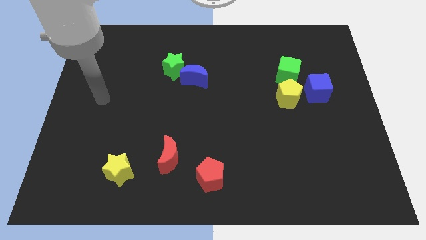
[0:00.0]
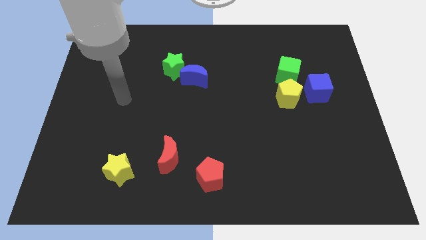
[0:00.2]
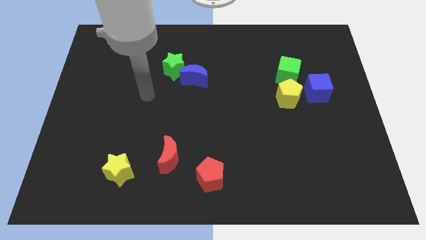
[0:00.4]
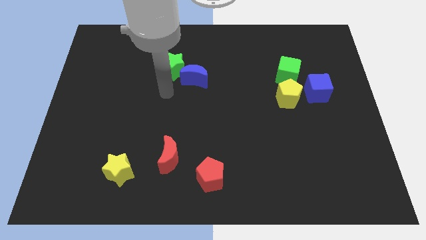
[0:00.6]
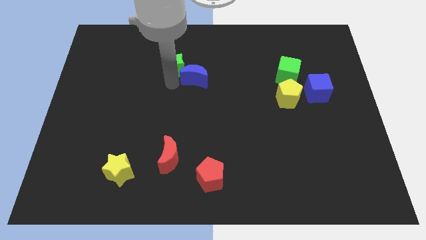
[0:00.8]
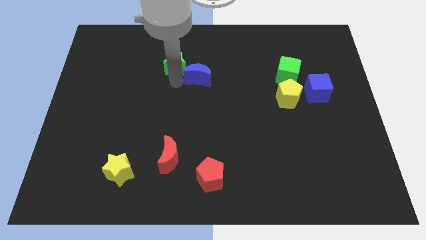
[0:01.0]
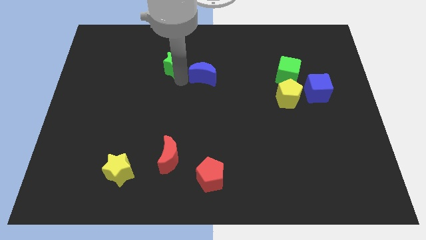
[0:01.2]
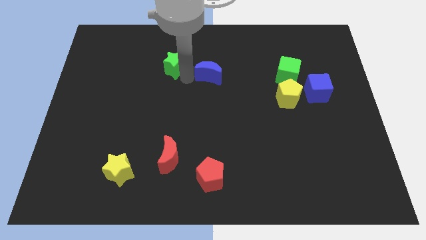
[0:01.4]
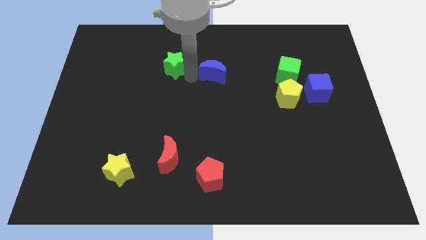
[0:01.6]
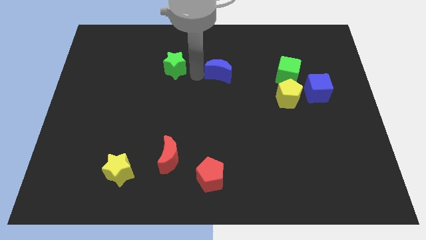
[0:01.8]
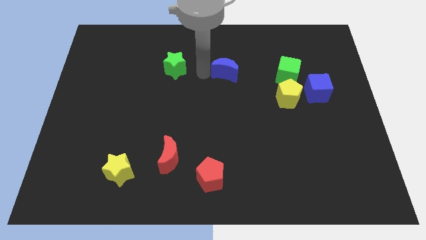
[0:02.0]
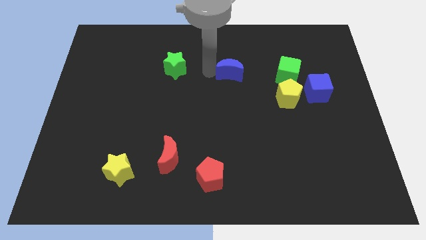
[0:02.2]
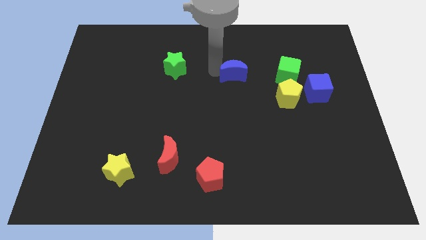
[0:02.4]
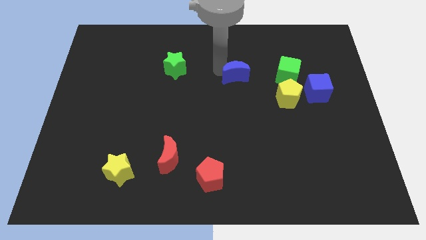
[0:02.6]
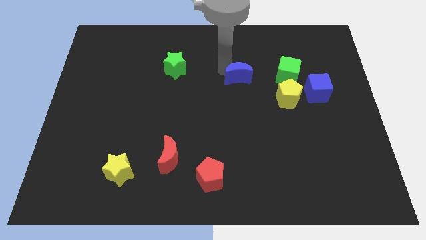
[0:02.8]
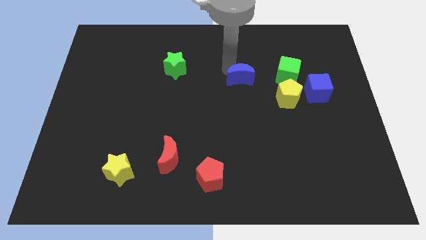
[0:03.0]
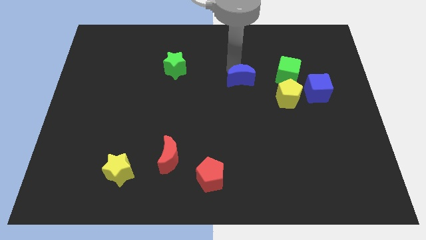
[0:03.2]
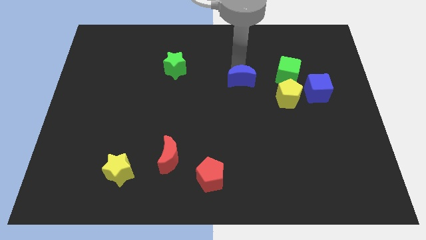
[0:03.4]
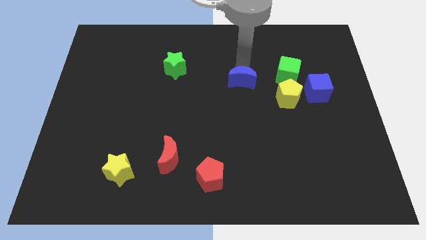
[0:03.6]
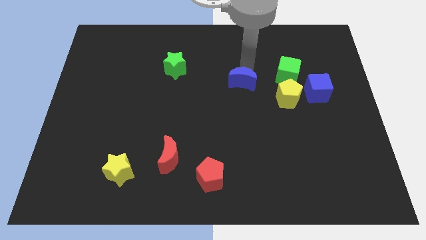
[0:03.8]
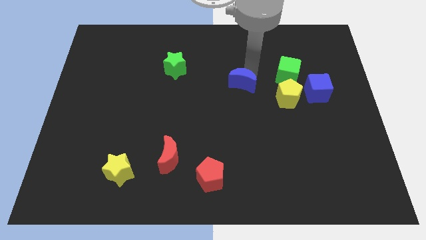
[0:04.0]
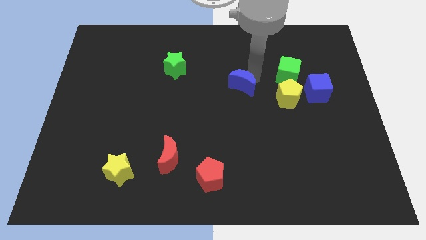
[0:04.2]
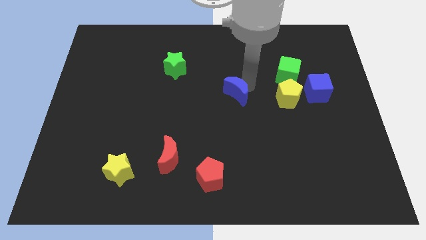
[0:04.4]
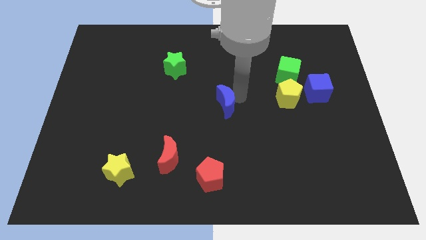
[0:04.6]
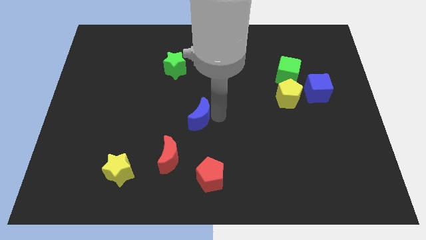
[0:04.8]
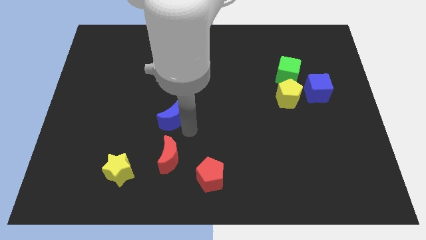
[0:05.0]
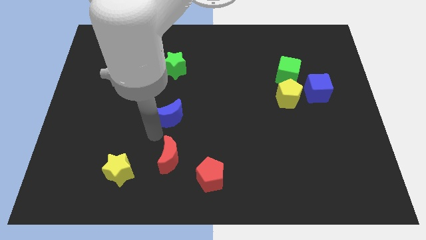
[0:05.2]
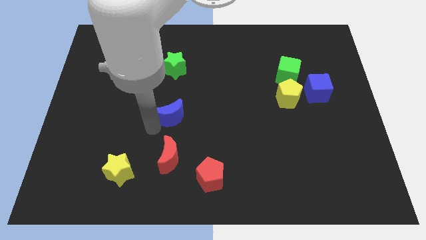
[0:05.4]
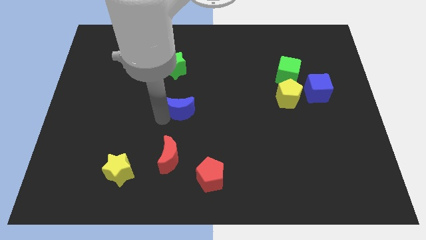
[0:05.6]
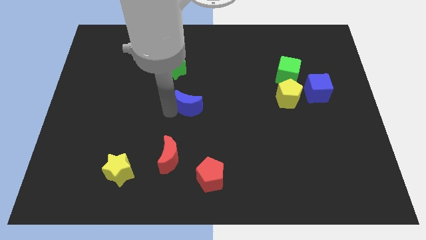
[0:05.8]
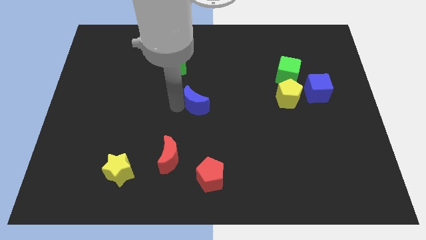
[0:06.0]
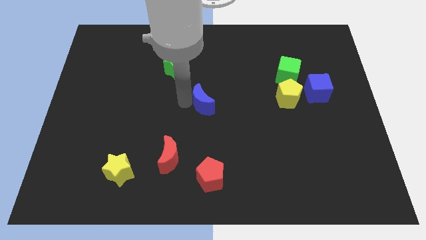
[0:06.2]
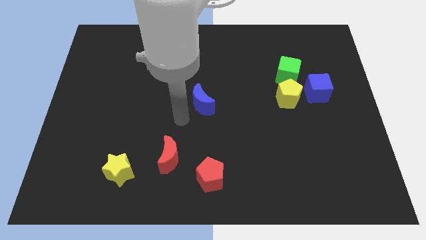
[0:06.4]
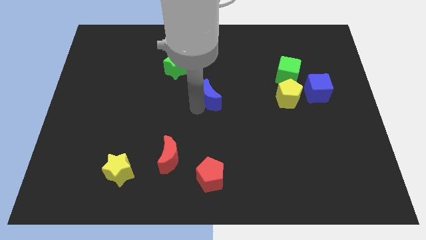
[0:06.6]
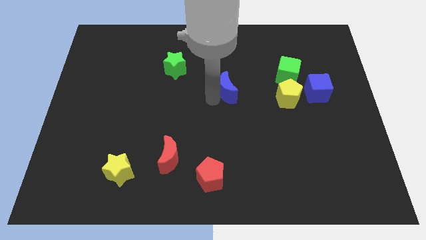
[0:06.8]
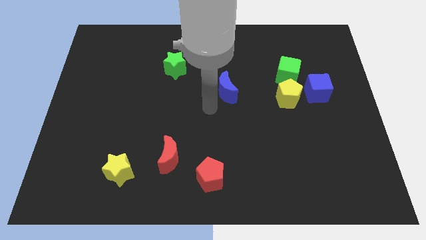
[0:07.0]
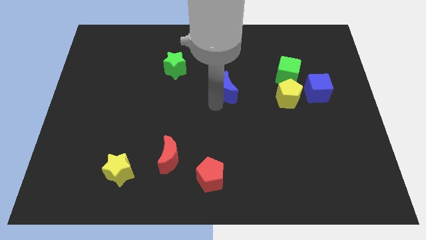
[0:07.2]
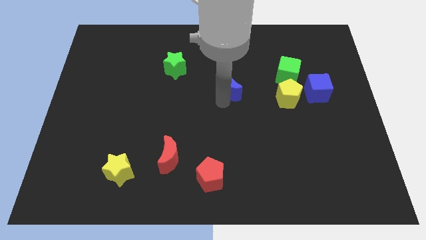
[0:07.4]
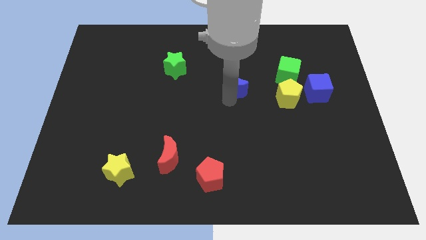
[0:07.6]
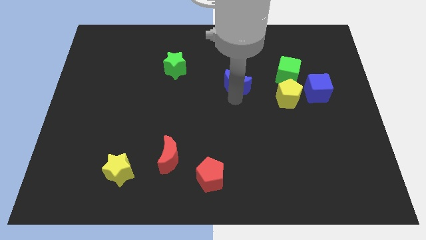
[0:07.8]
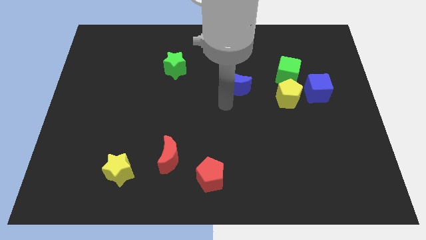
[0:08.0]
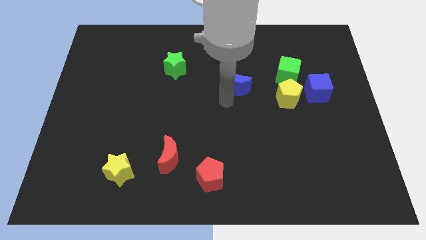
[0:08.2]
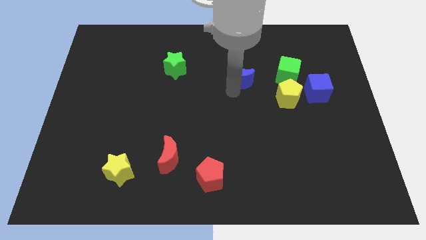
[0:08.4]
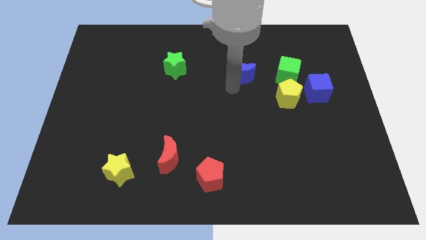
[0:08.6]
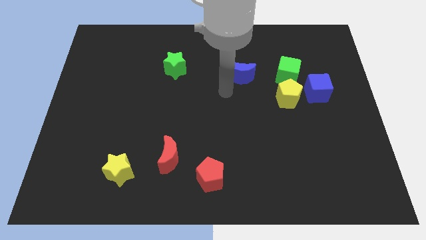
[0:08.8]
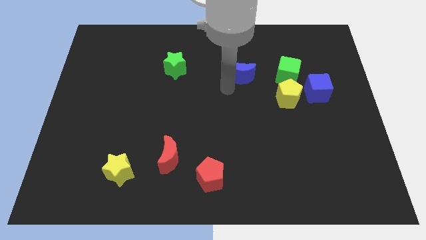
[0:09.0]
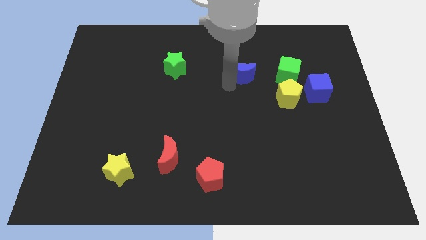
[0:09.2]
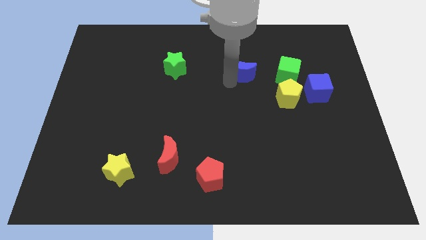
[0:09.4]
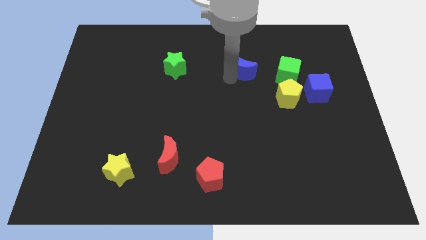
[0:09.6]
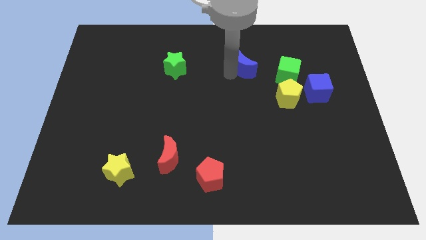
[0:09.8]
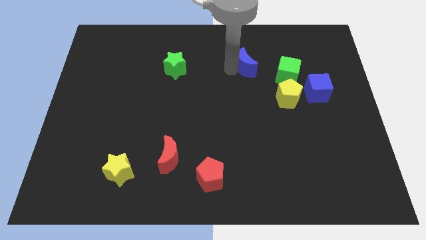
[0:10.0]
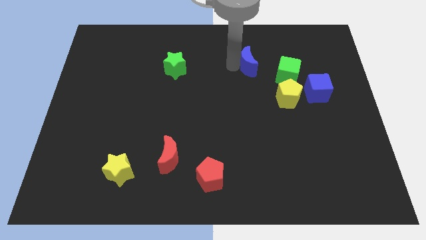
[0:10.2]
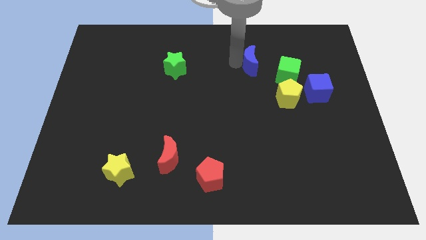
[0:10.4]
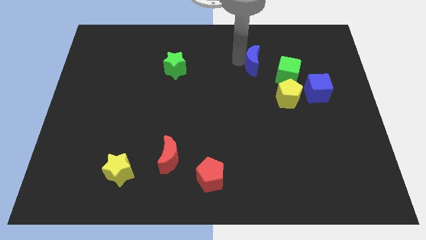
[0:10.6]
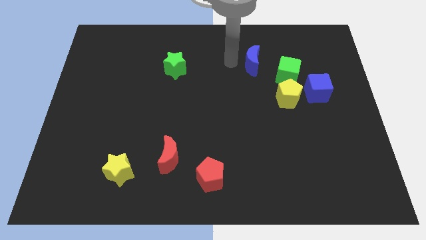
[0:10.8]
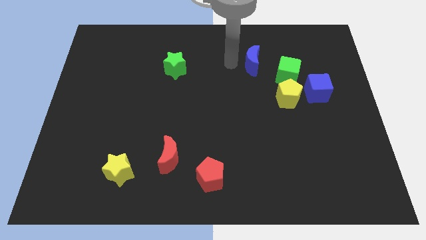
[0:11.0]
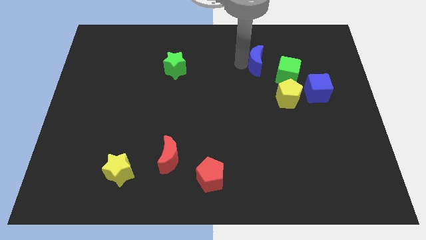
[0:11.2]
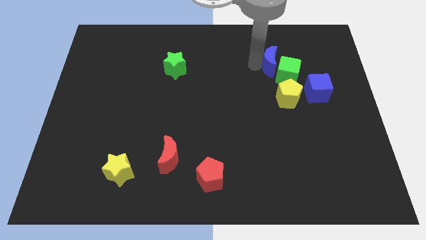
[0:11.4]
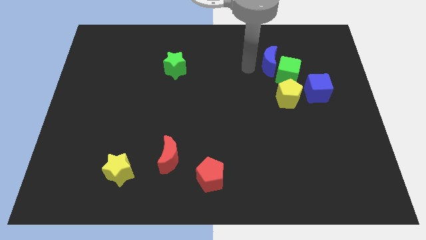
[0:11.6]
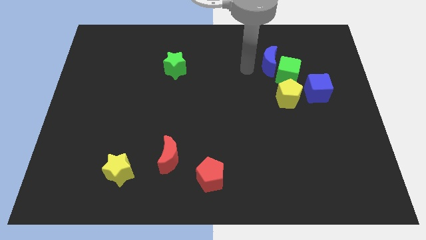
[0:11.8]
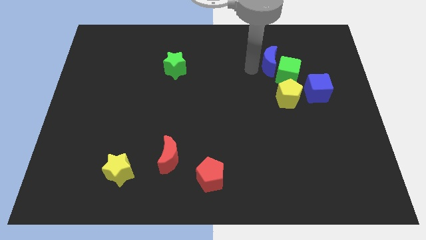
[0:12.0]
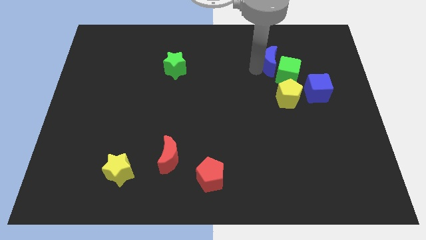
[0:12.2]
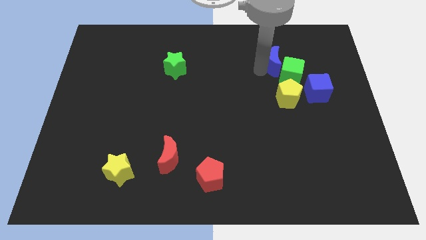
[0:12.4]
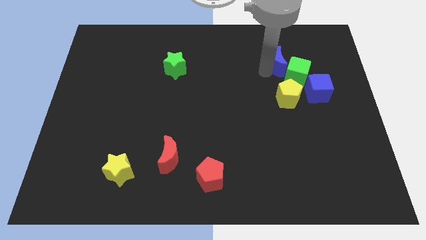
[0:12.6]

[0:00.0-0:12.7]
push the blue moon right

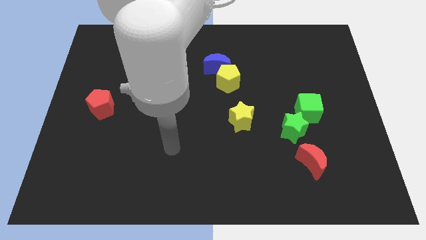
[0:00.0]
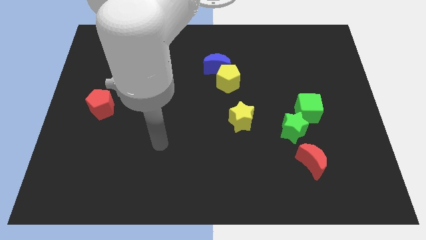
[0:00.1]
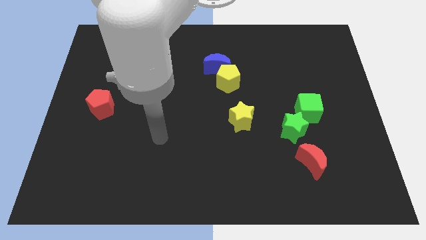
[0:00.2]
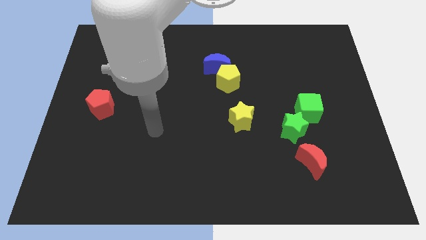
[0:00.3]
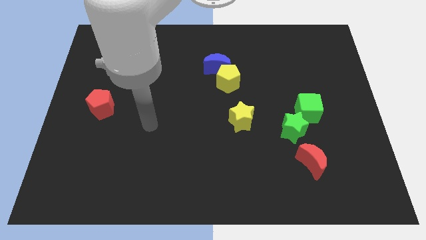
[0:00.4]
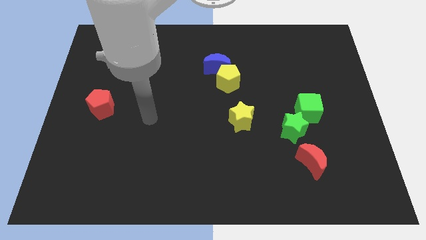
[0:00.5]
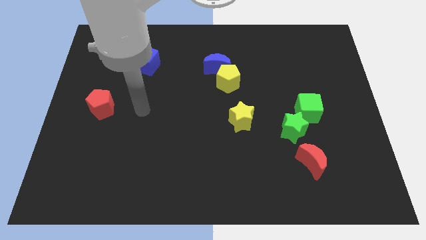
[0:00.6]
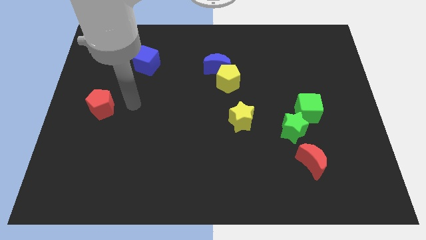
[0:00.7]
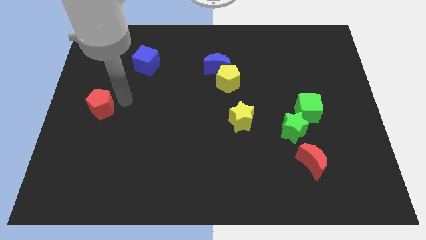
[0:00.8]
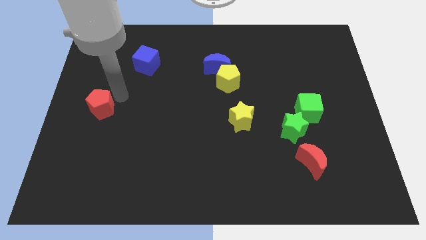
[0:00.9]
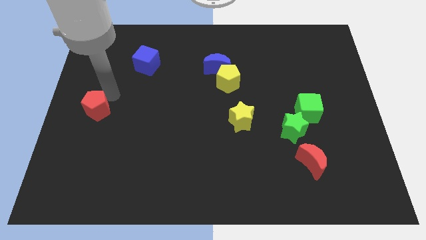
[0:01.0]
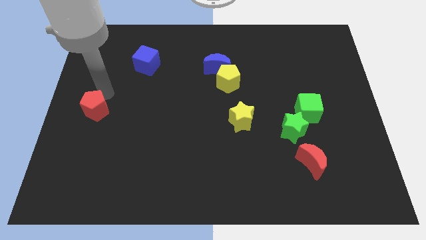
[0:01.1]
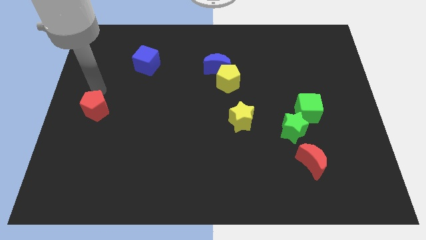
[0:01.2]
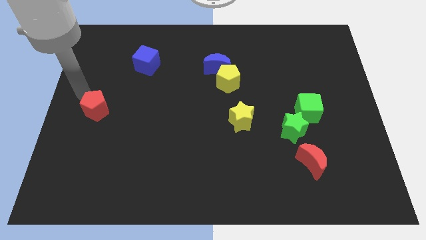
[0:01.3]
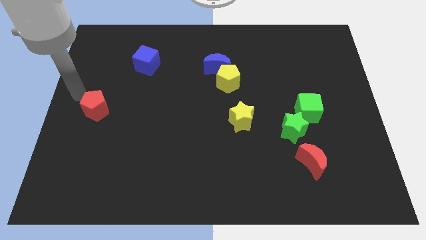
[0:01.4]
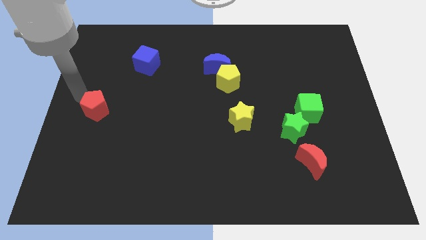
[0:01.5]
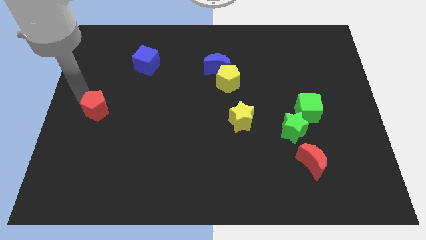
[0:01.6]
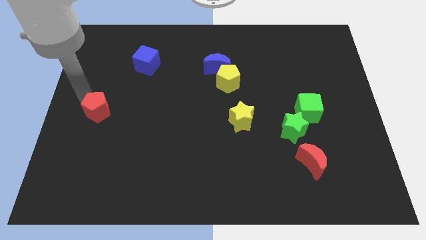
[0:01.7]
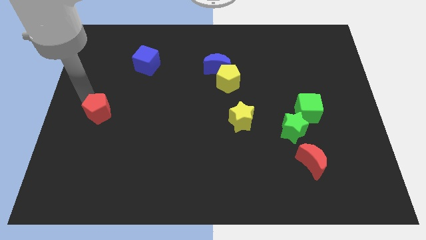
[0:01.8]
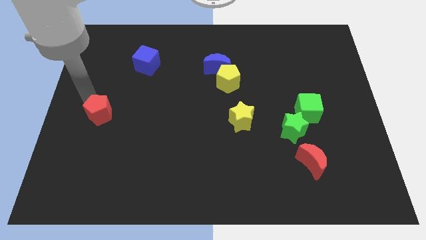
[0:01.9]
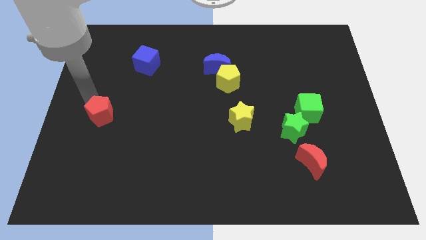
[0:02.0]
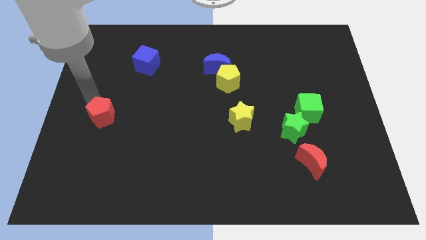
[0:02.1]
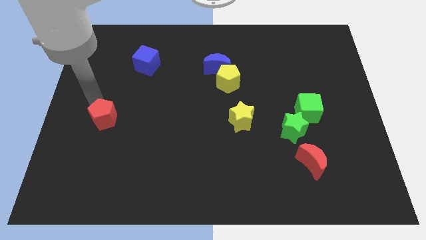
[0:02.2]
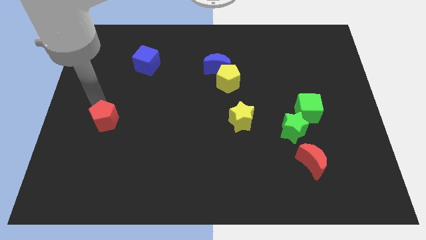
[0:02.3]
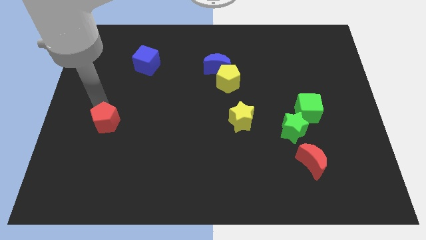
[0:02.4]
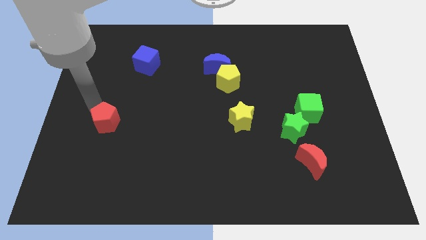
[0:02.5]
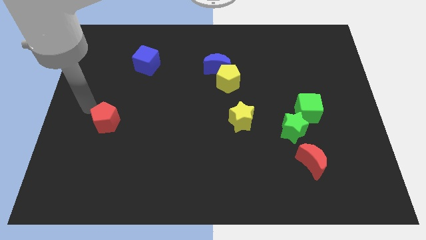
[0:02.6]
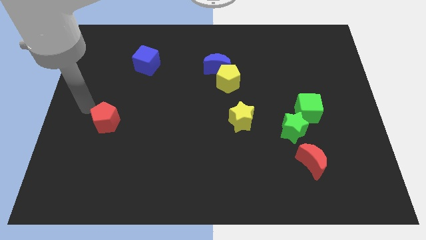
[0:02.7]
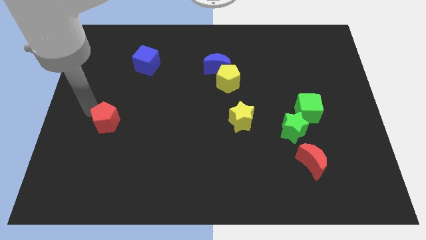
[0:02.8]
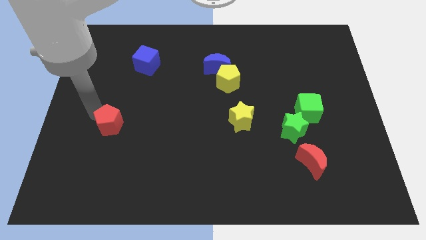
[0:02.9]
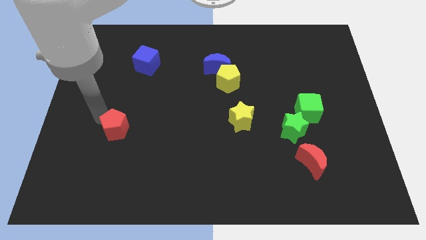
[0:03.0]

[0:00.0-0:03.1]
push the red pentagon a little downwards and right diagonally
